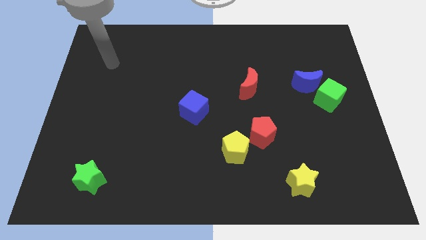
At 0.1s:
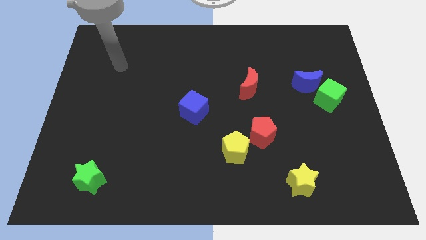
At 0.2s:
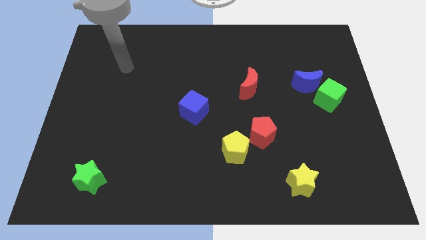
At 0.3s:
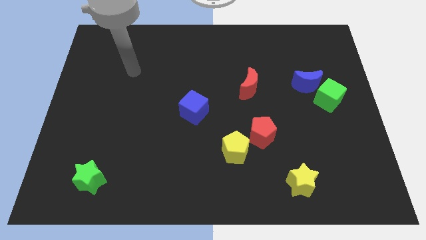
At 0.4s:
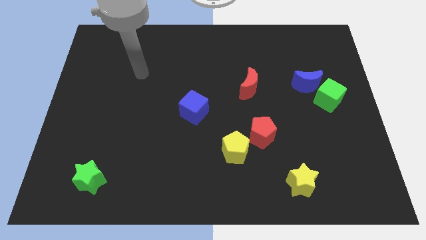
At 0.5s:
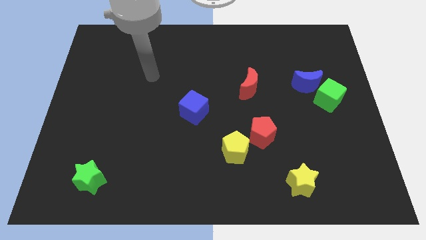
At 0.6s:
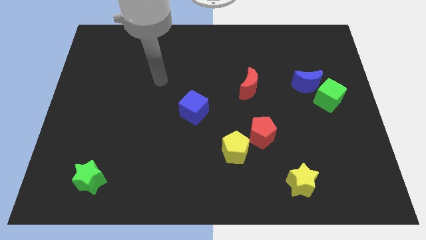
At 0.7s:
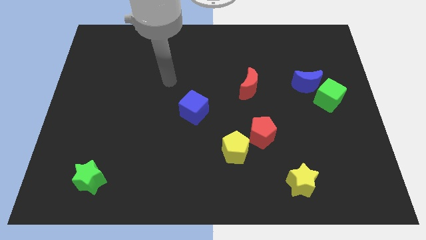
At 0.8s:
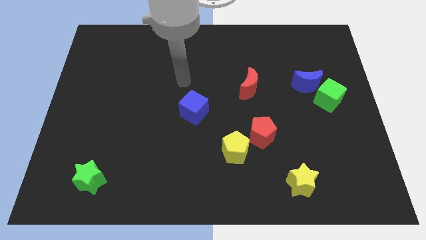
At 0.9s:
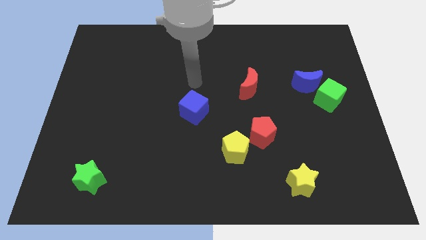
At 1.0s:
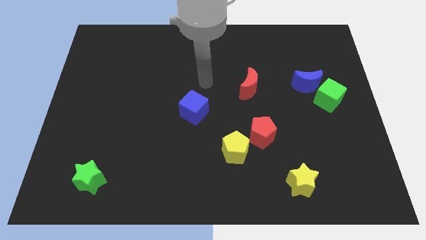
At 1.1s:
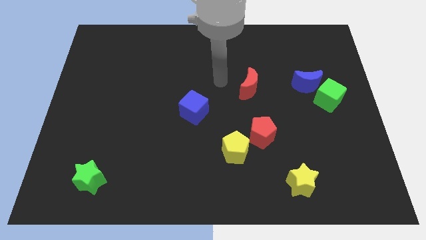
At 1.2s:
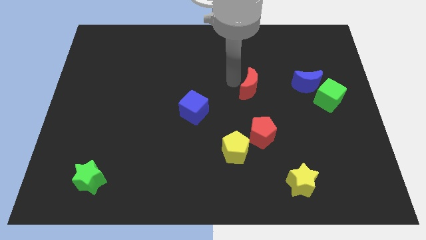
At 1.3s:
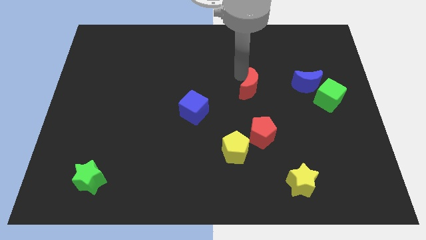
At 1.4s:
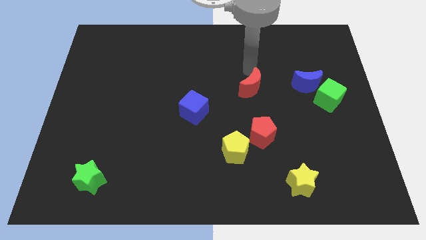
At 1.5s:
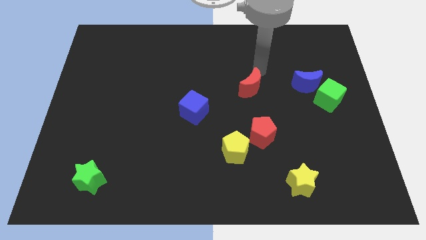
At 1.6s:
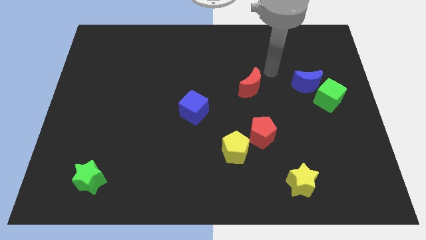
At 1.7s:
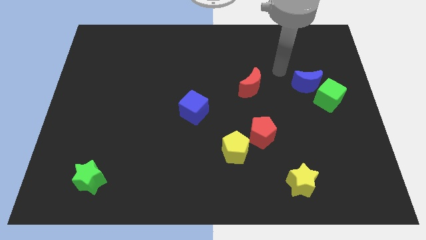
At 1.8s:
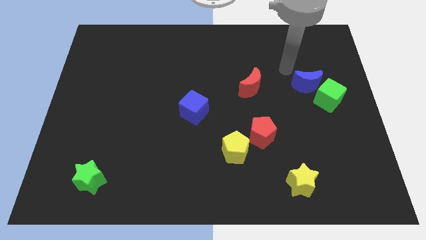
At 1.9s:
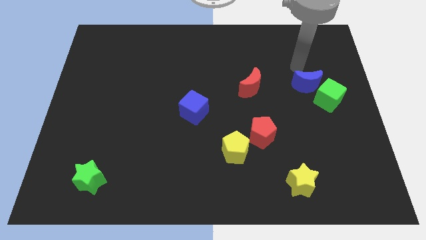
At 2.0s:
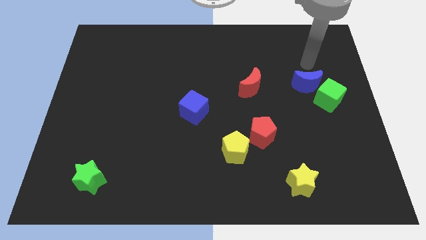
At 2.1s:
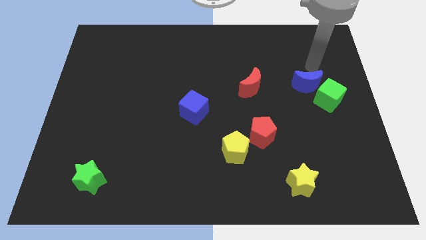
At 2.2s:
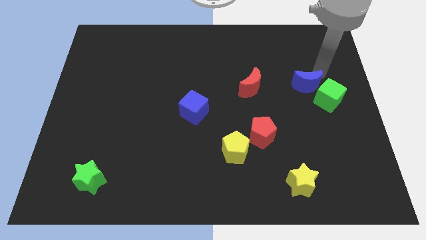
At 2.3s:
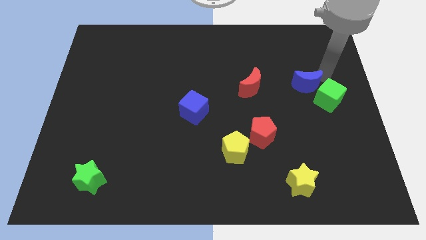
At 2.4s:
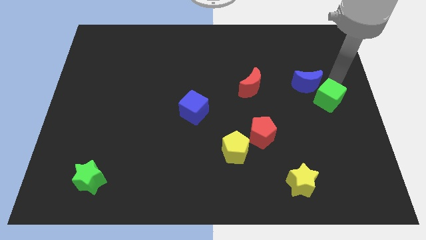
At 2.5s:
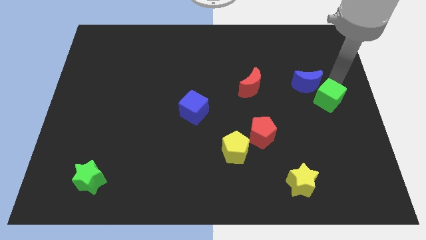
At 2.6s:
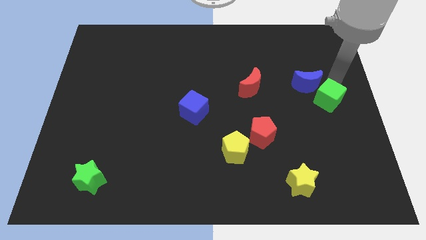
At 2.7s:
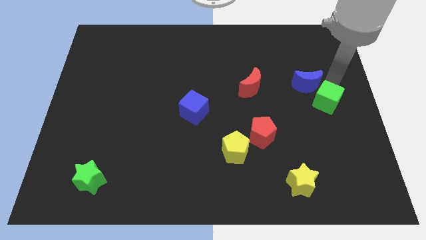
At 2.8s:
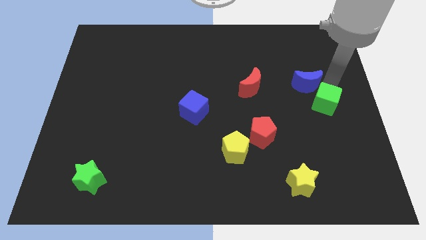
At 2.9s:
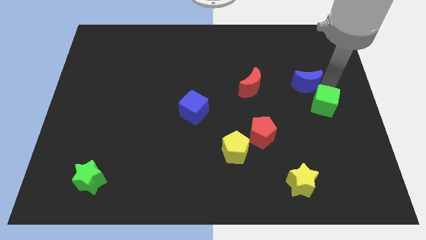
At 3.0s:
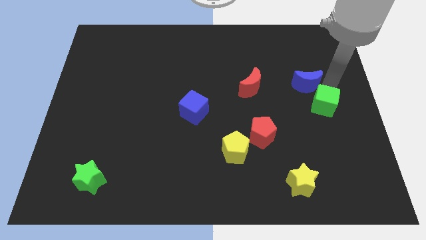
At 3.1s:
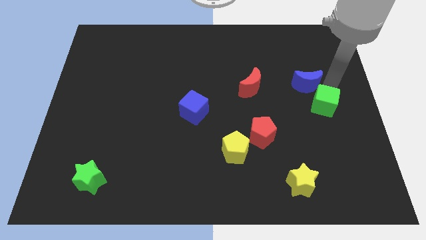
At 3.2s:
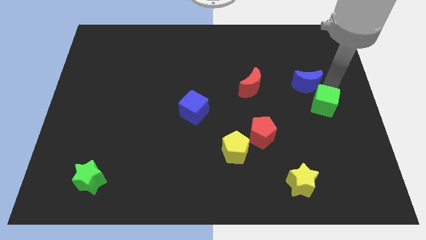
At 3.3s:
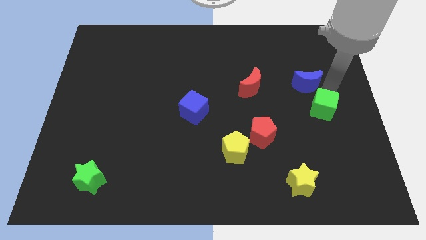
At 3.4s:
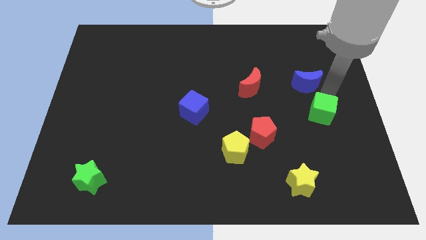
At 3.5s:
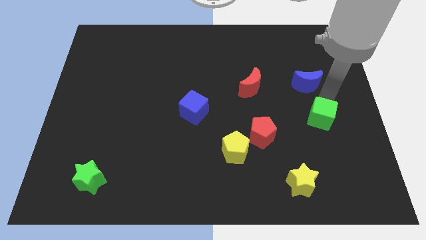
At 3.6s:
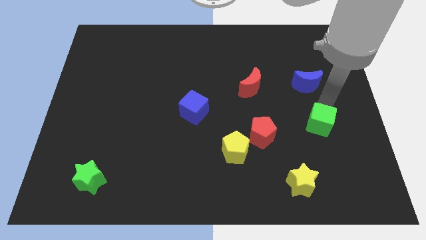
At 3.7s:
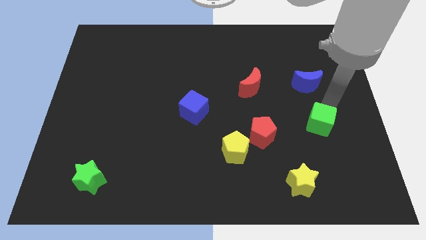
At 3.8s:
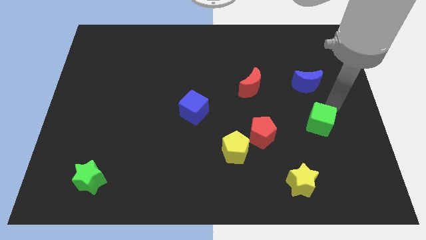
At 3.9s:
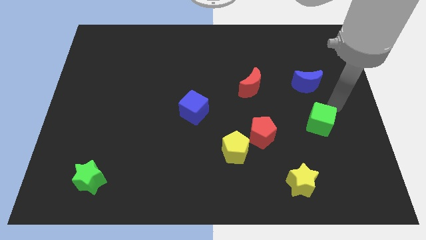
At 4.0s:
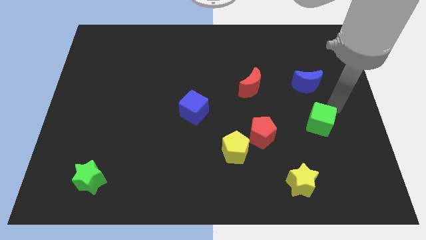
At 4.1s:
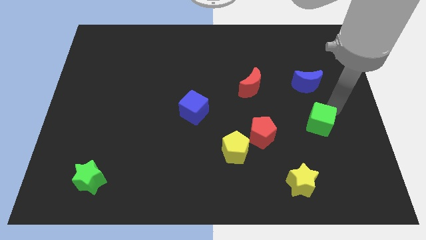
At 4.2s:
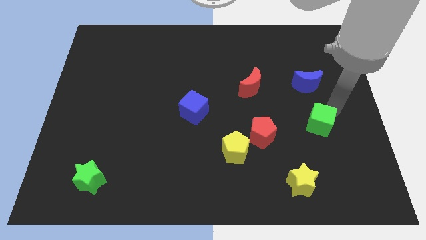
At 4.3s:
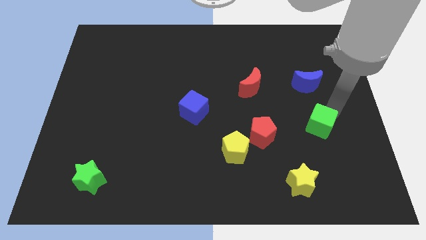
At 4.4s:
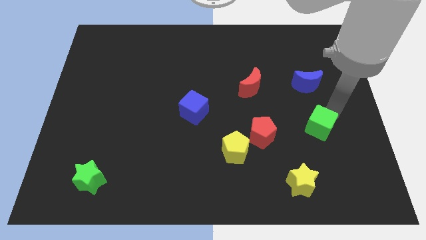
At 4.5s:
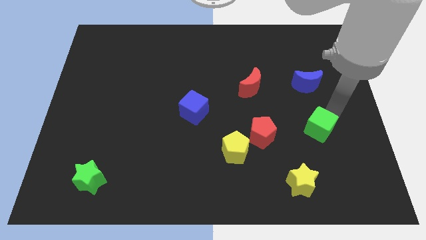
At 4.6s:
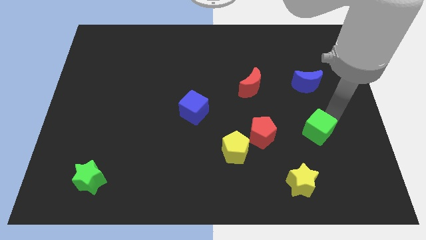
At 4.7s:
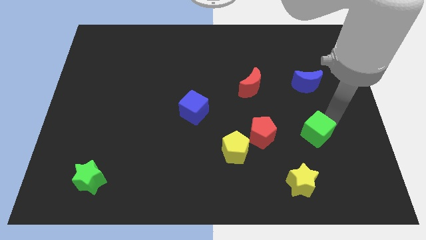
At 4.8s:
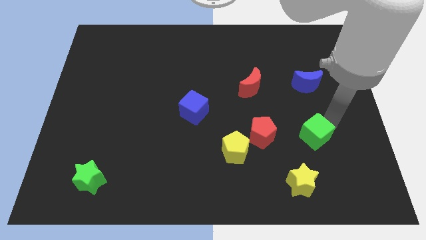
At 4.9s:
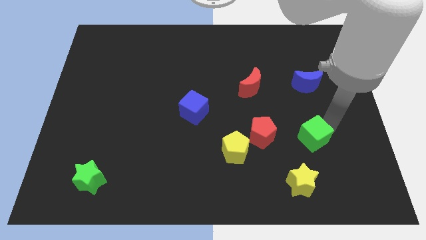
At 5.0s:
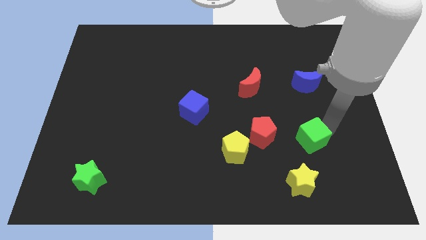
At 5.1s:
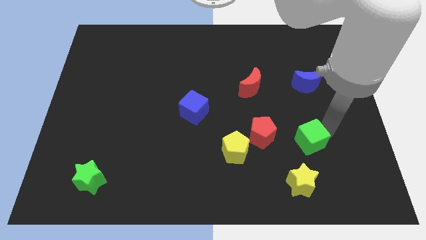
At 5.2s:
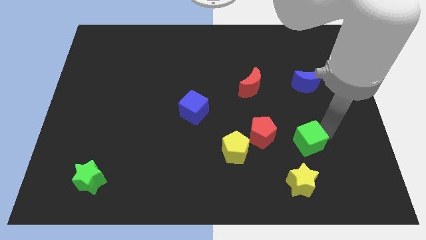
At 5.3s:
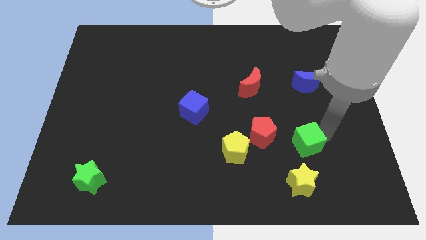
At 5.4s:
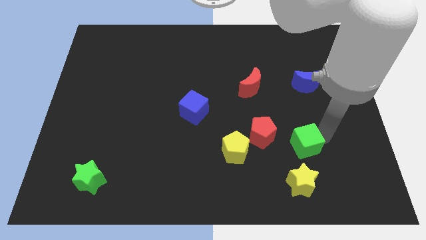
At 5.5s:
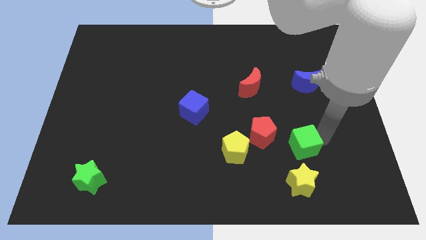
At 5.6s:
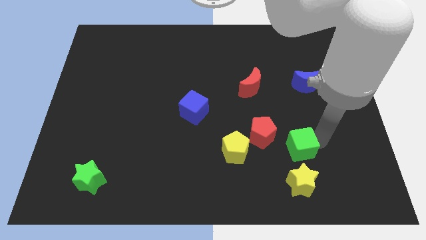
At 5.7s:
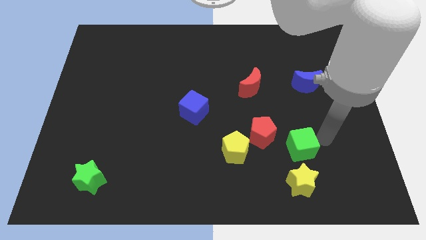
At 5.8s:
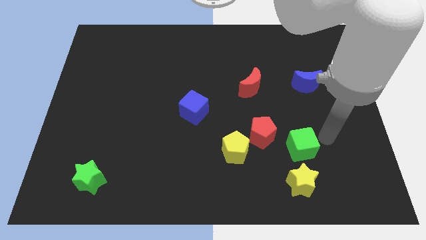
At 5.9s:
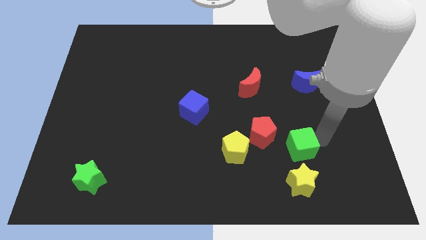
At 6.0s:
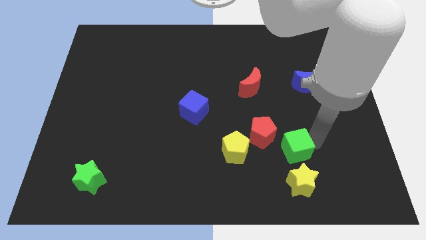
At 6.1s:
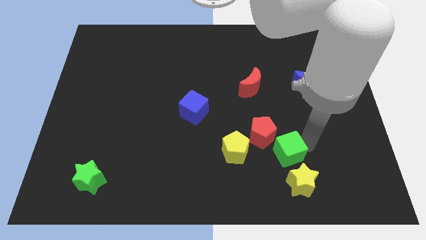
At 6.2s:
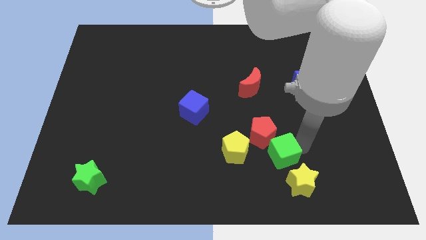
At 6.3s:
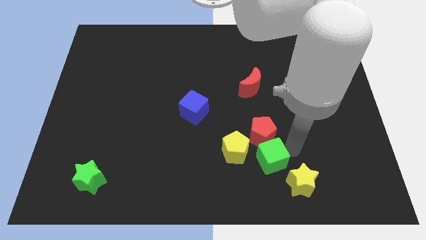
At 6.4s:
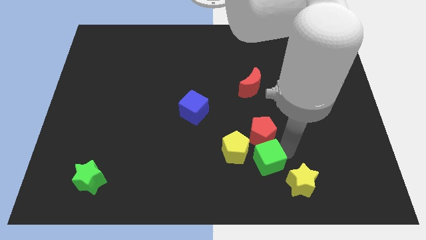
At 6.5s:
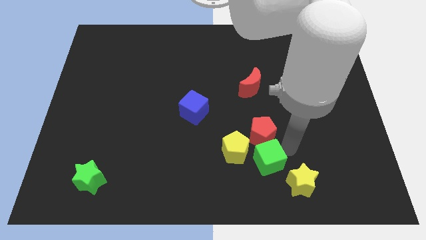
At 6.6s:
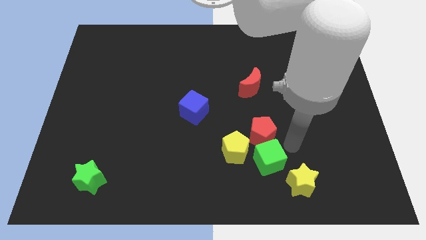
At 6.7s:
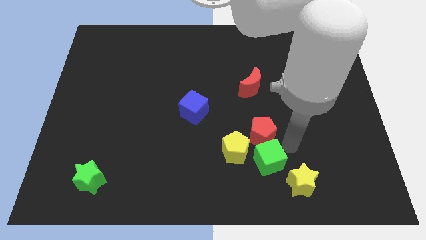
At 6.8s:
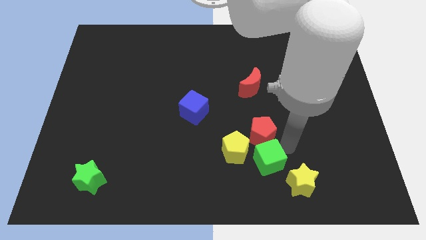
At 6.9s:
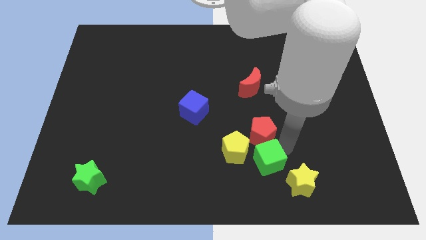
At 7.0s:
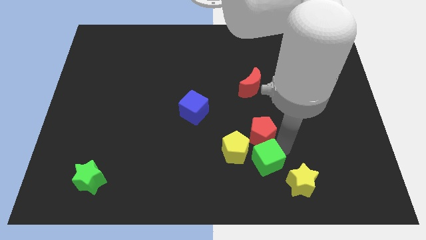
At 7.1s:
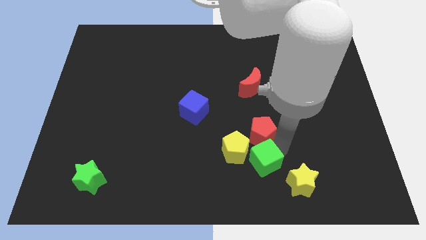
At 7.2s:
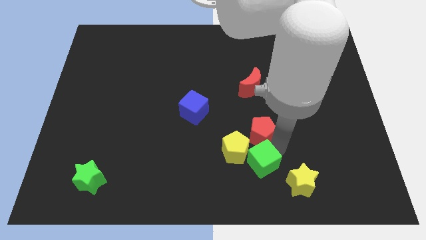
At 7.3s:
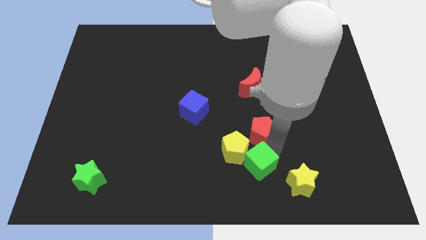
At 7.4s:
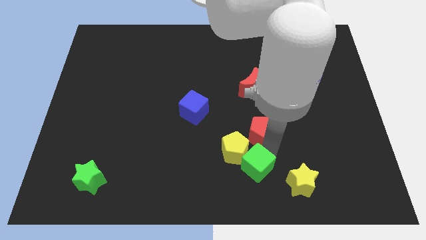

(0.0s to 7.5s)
slide the green cube to the bottom

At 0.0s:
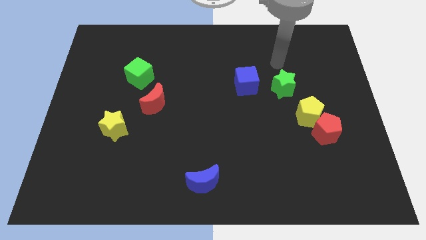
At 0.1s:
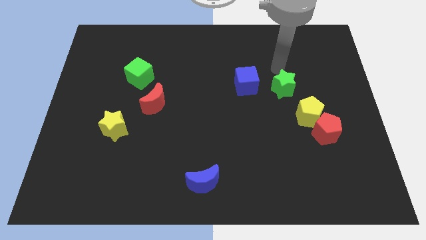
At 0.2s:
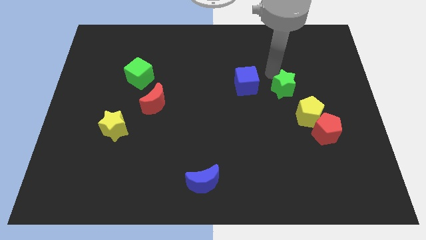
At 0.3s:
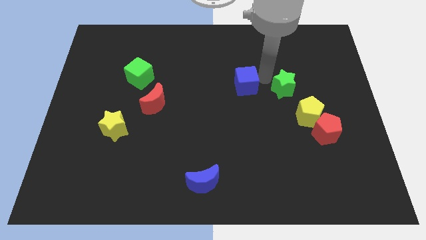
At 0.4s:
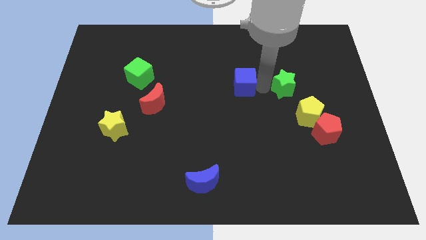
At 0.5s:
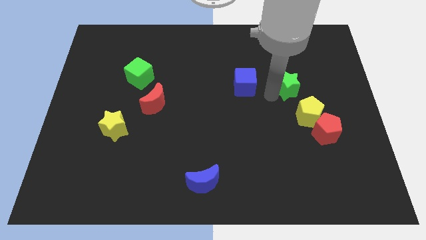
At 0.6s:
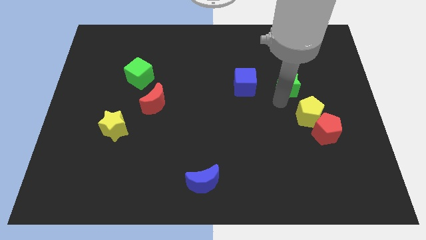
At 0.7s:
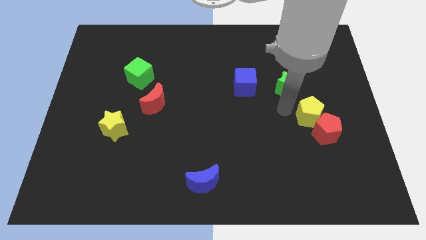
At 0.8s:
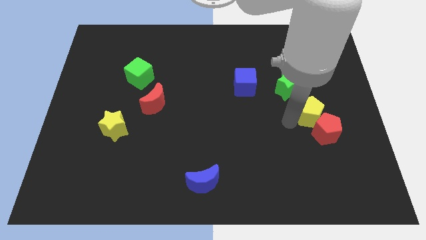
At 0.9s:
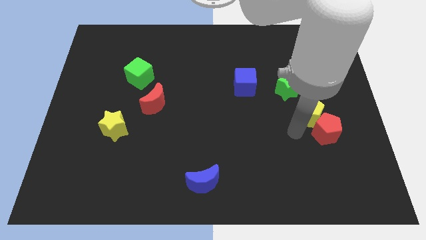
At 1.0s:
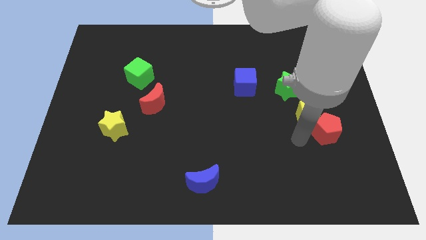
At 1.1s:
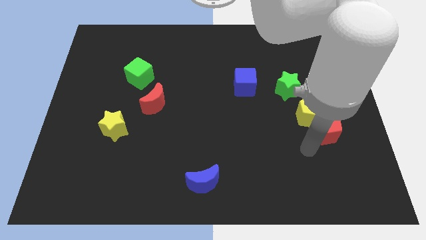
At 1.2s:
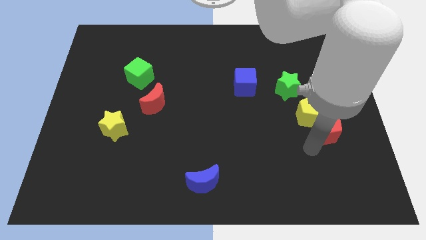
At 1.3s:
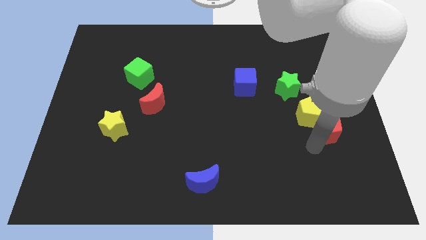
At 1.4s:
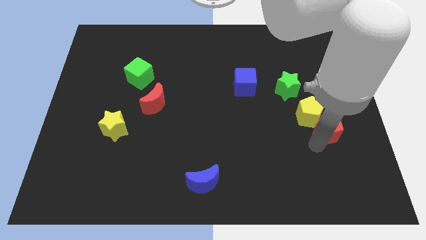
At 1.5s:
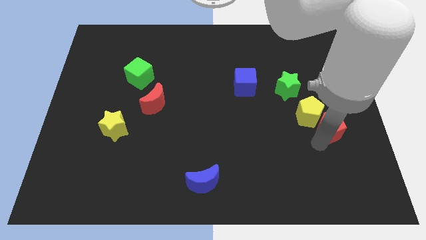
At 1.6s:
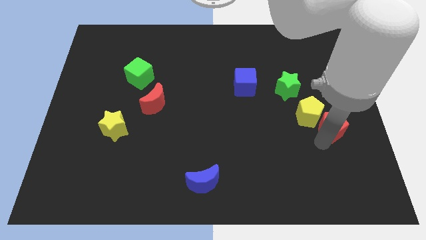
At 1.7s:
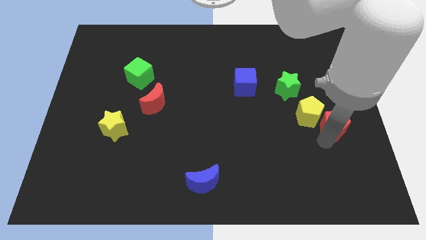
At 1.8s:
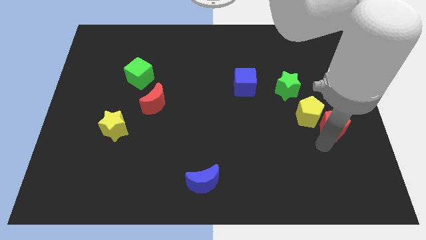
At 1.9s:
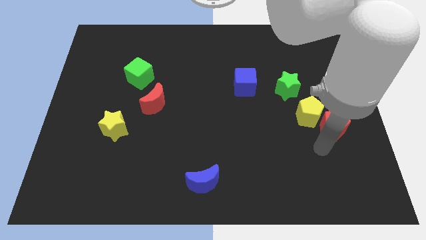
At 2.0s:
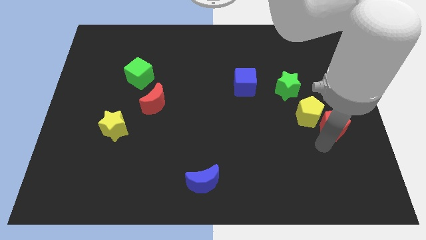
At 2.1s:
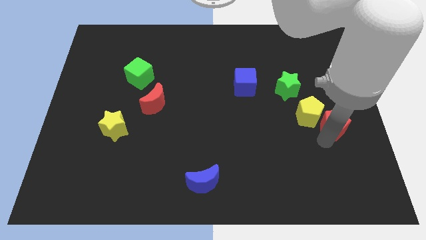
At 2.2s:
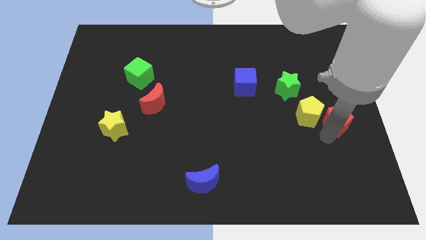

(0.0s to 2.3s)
push the red pentagon to the right side
